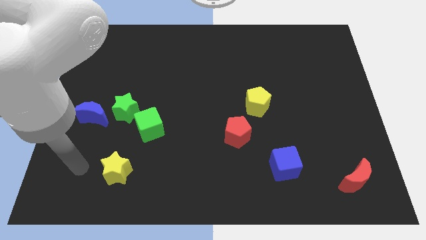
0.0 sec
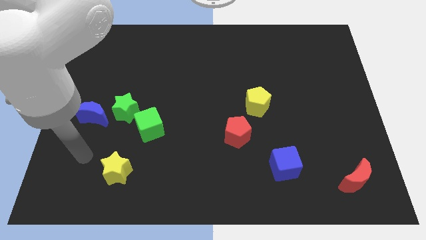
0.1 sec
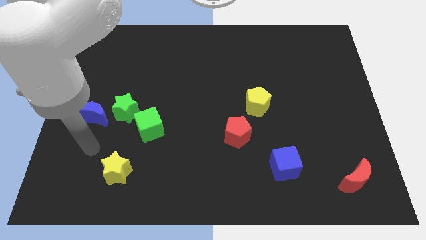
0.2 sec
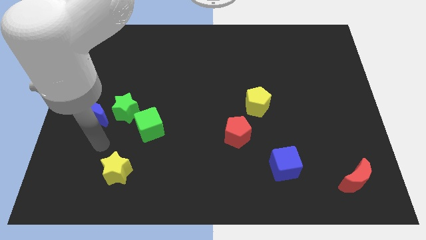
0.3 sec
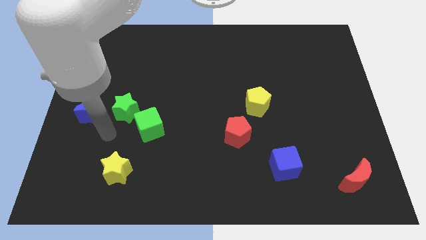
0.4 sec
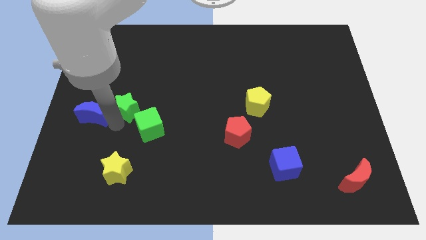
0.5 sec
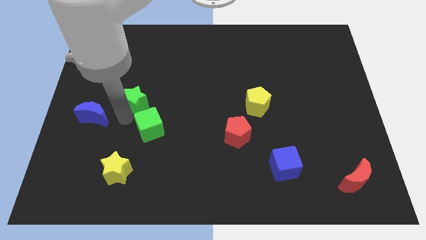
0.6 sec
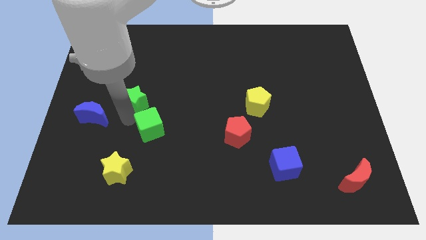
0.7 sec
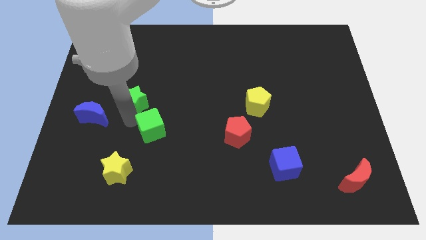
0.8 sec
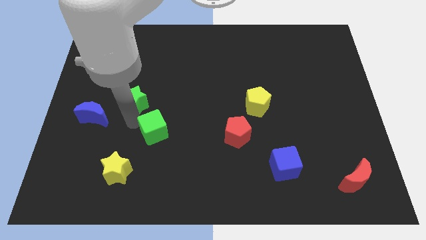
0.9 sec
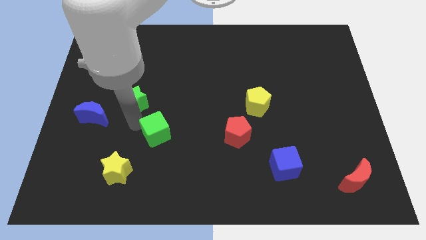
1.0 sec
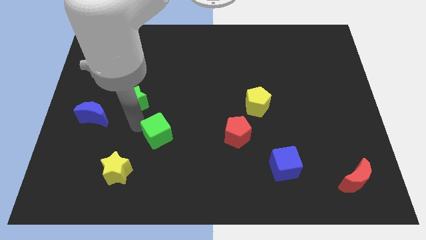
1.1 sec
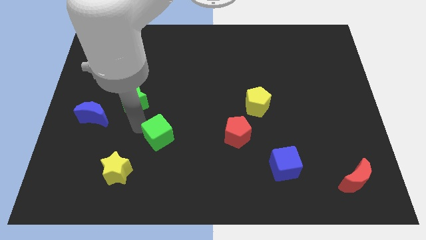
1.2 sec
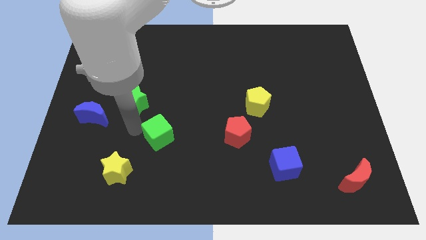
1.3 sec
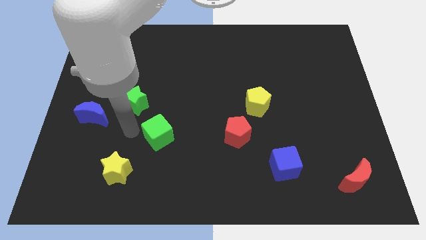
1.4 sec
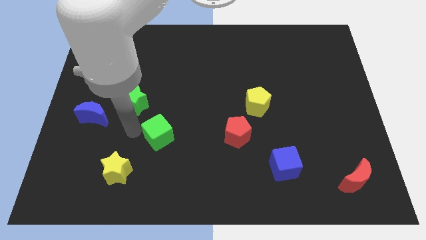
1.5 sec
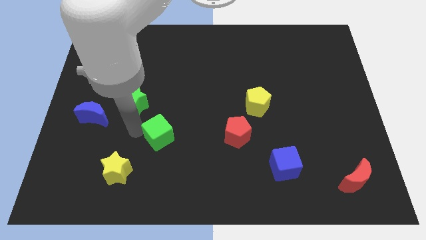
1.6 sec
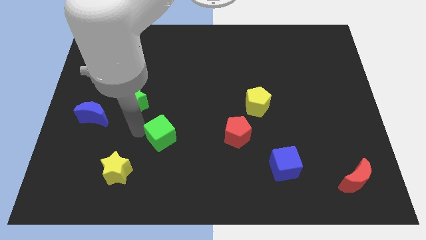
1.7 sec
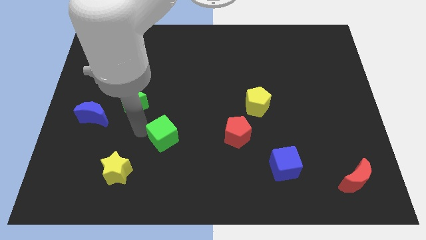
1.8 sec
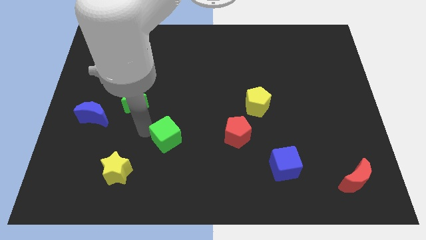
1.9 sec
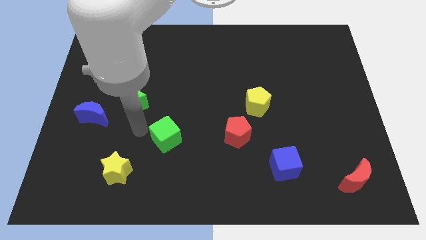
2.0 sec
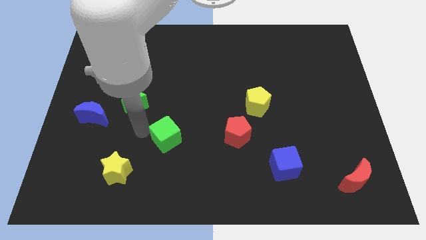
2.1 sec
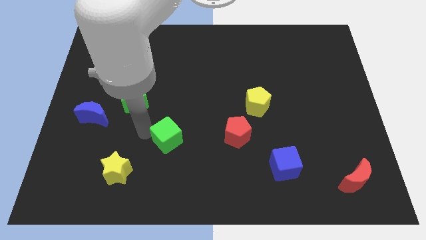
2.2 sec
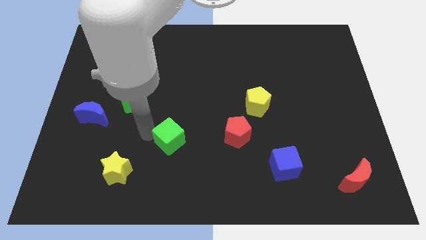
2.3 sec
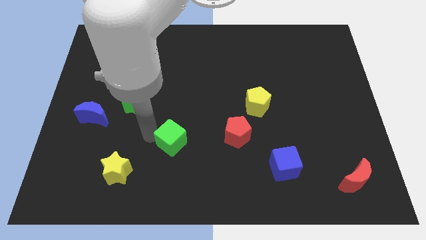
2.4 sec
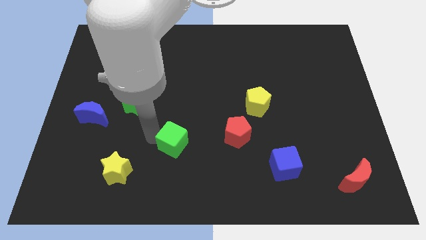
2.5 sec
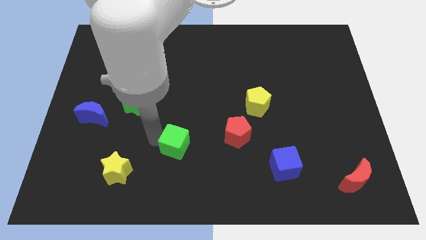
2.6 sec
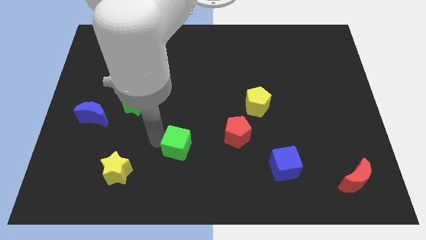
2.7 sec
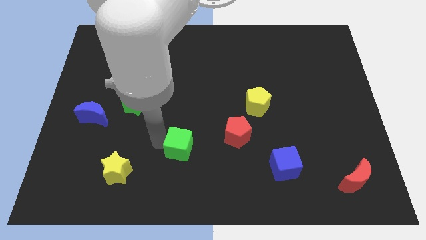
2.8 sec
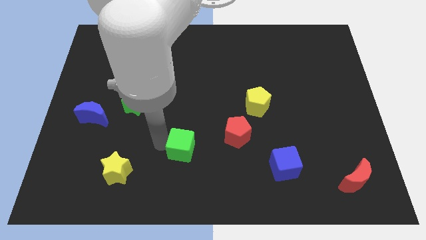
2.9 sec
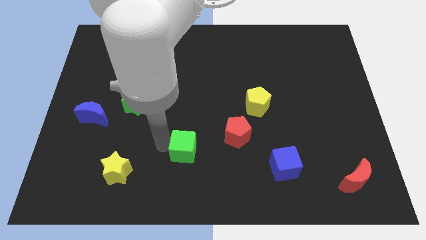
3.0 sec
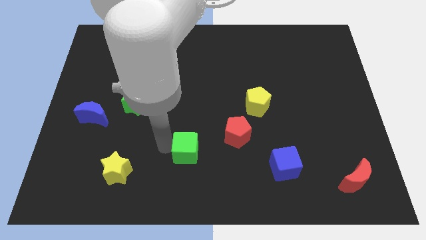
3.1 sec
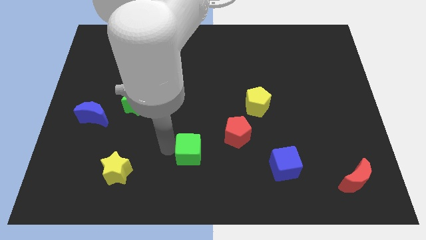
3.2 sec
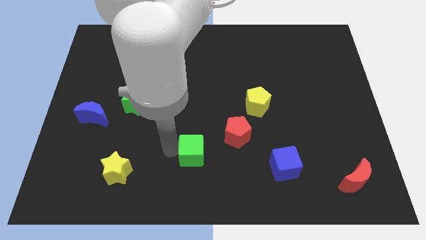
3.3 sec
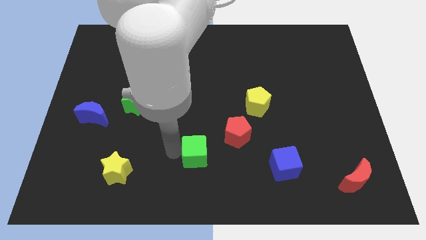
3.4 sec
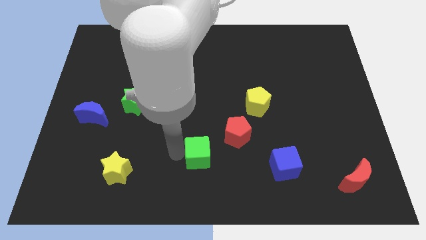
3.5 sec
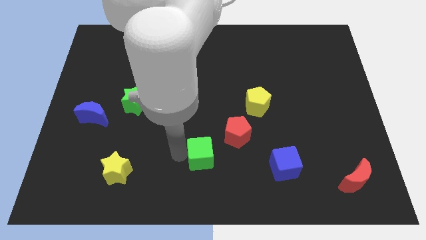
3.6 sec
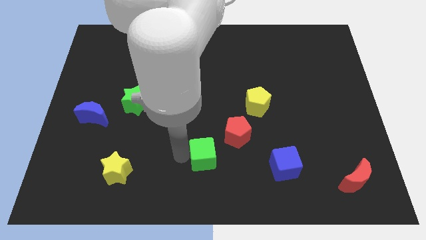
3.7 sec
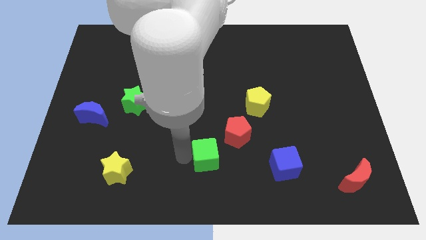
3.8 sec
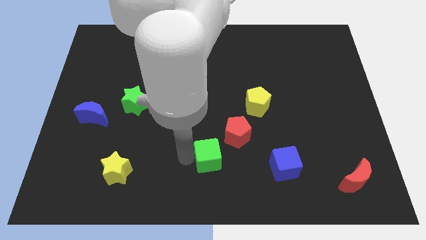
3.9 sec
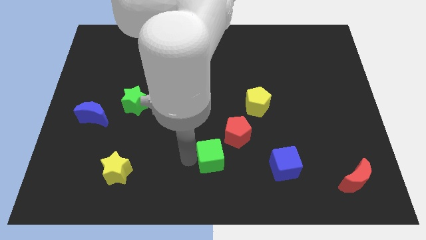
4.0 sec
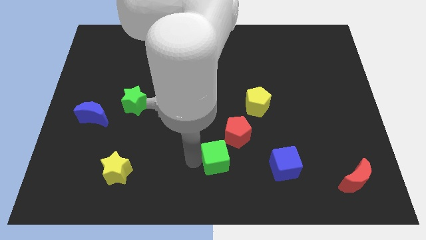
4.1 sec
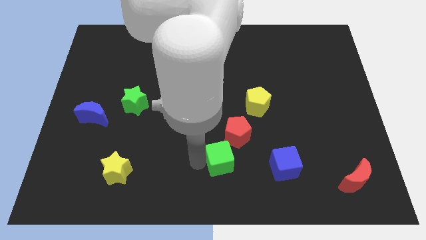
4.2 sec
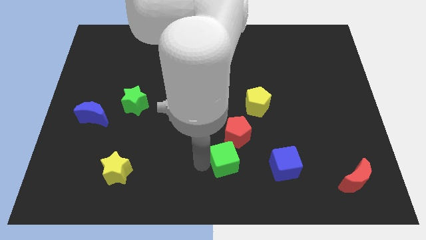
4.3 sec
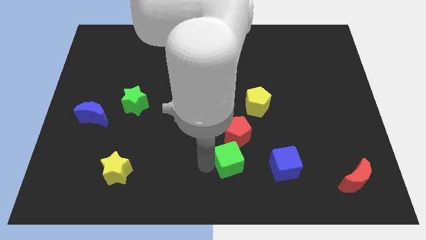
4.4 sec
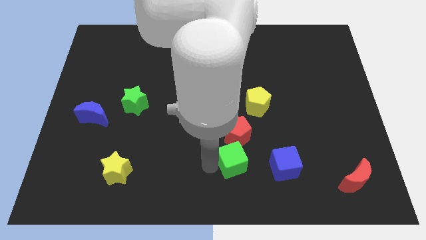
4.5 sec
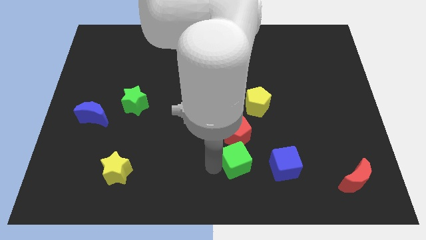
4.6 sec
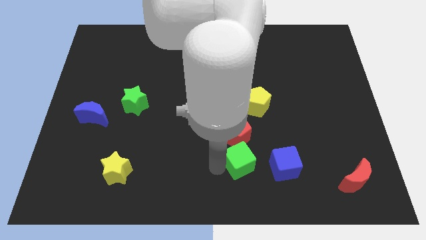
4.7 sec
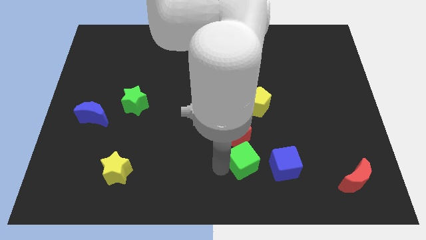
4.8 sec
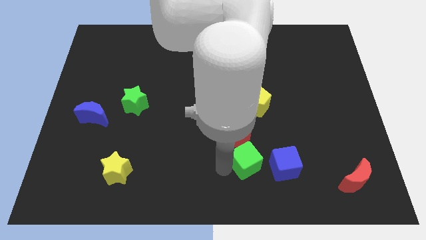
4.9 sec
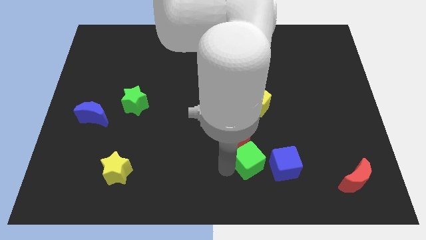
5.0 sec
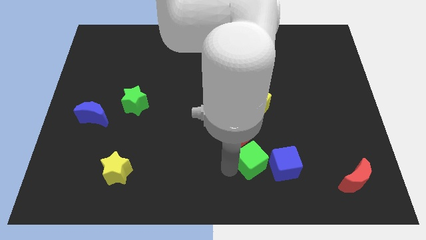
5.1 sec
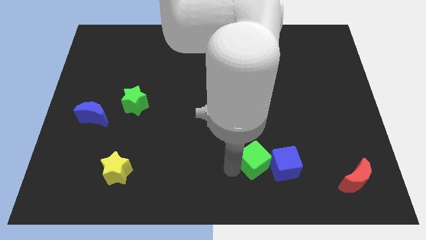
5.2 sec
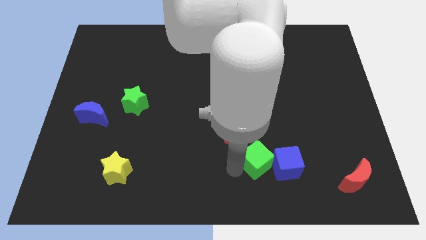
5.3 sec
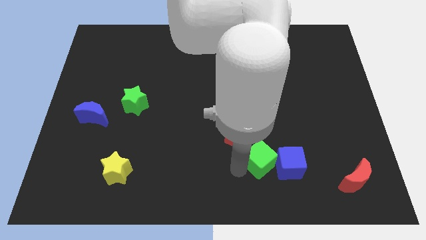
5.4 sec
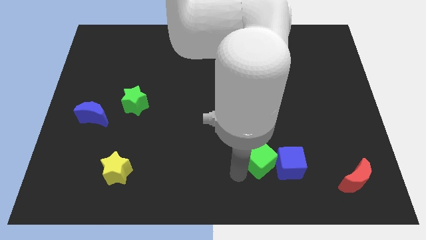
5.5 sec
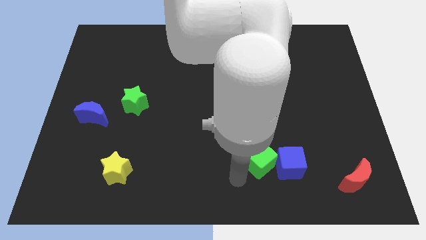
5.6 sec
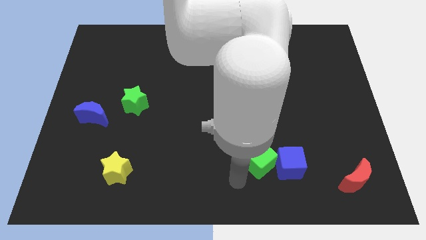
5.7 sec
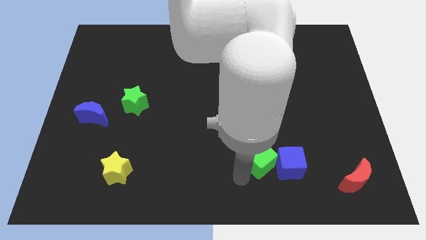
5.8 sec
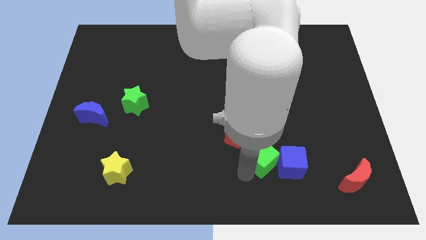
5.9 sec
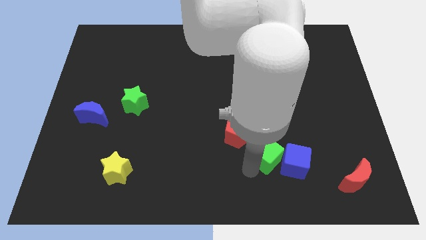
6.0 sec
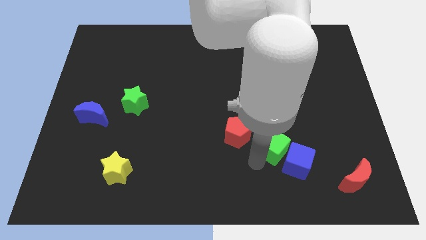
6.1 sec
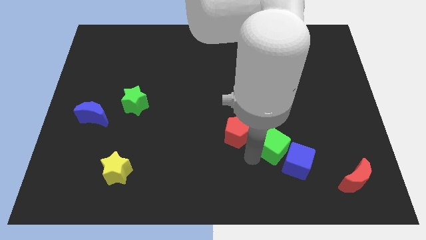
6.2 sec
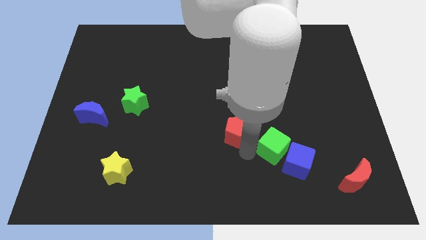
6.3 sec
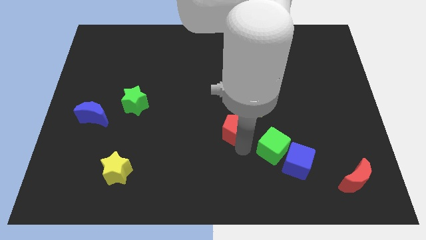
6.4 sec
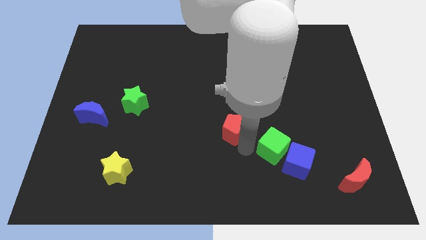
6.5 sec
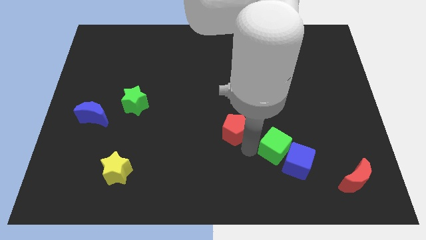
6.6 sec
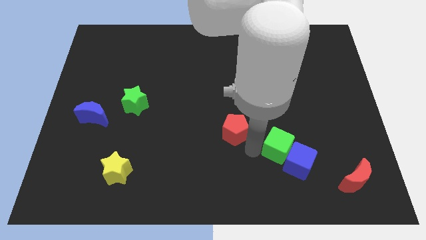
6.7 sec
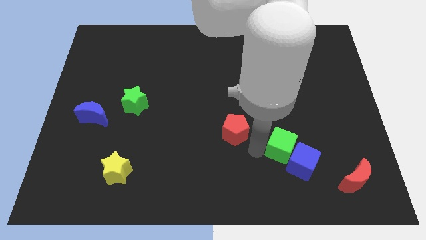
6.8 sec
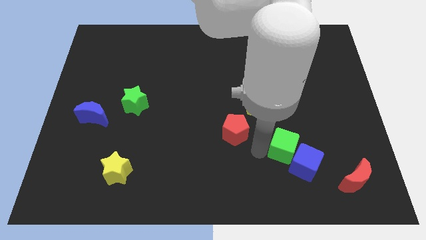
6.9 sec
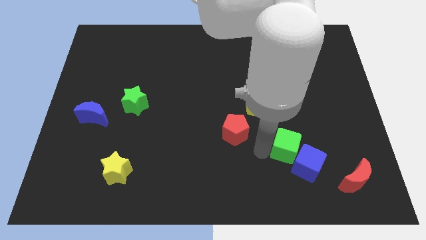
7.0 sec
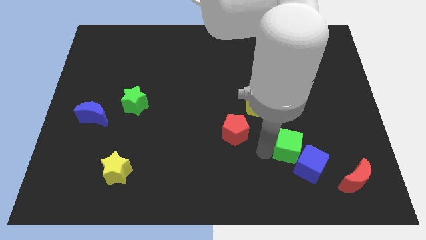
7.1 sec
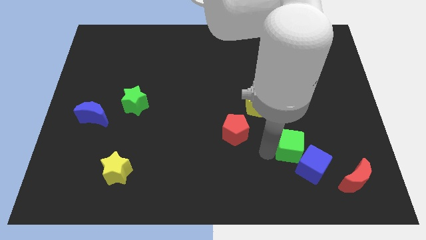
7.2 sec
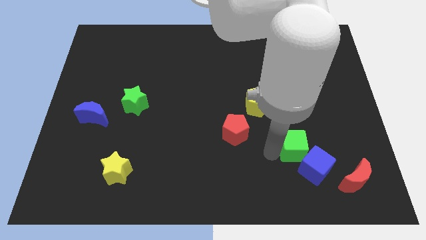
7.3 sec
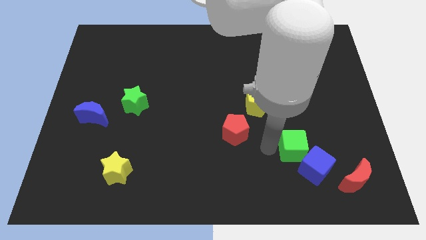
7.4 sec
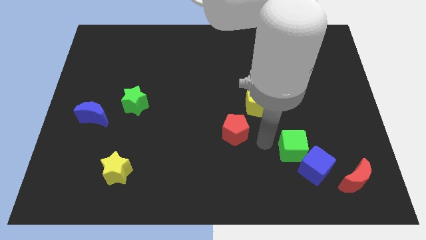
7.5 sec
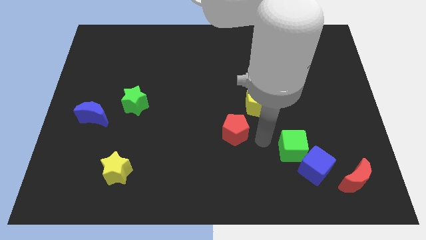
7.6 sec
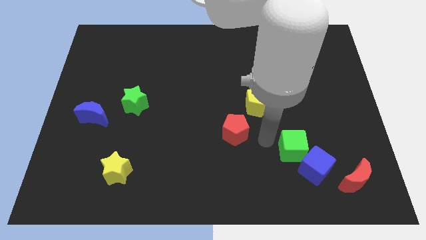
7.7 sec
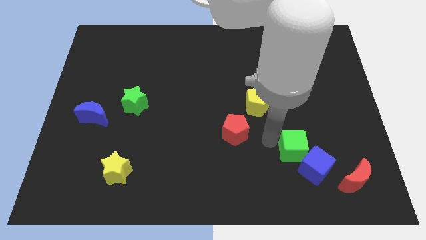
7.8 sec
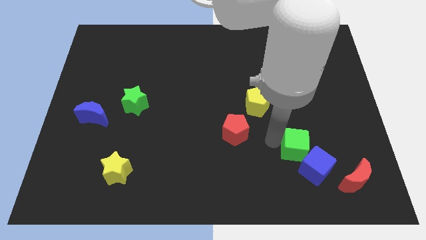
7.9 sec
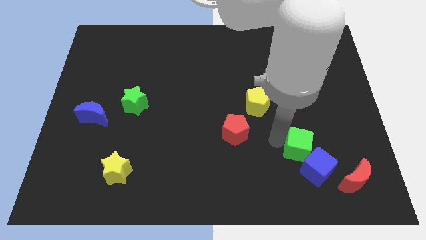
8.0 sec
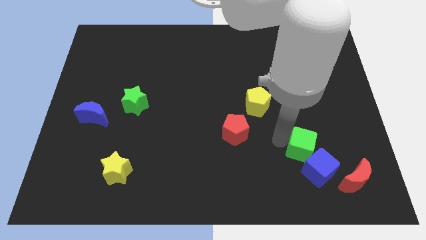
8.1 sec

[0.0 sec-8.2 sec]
move the green cube diagonally up and to the left of the red moon
